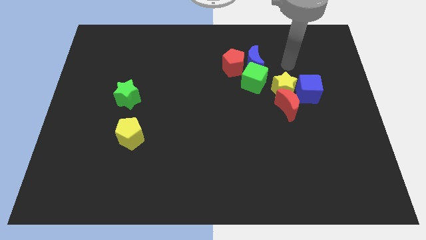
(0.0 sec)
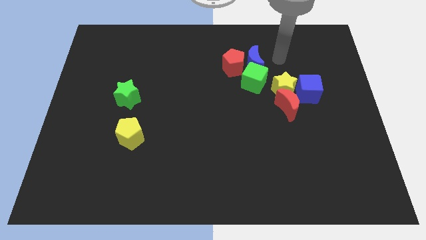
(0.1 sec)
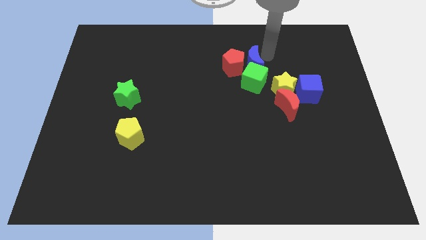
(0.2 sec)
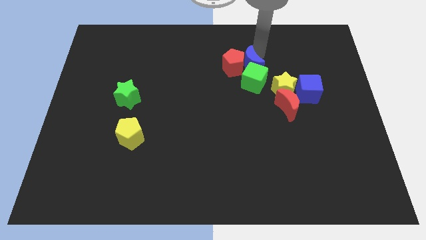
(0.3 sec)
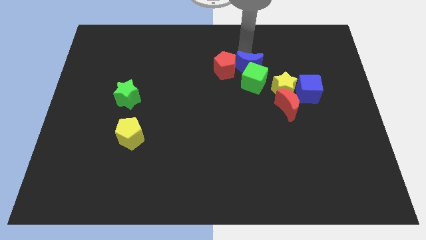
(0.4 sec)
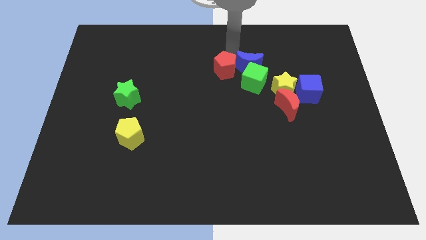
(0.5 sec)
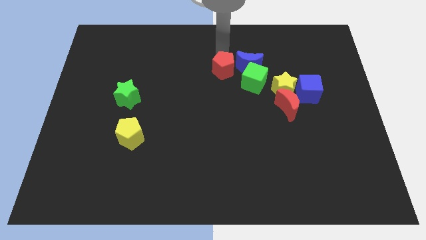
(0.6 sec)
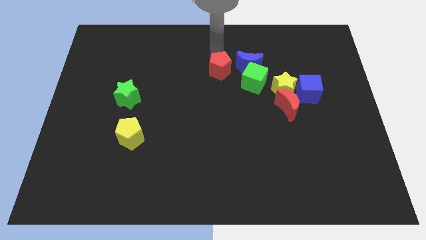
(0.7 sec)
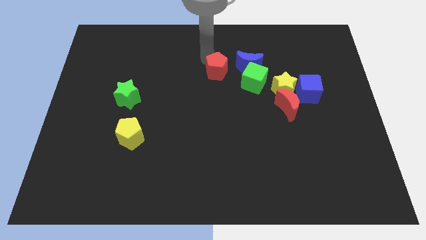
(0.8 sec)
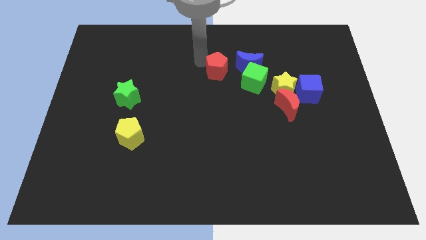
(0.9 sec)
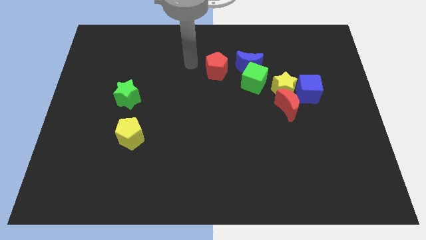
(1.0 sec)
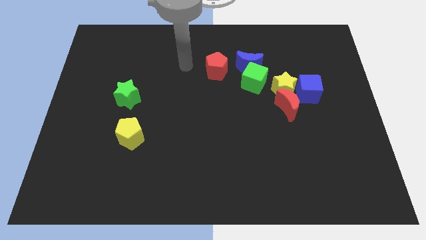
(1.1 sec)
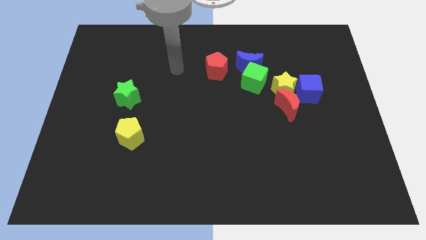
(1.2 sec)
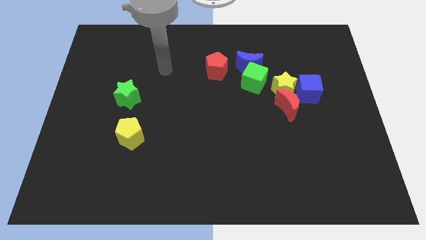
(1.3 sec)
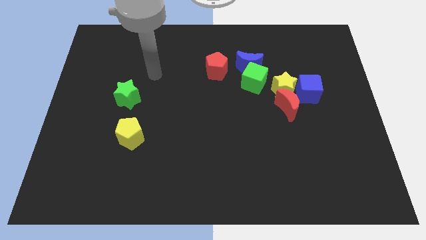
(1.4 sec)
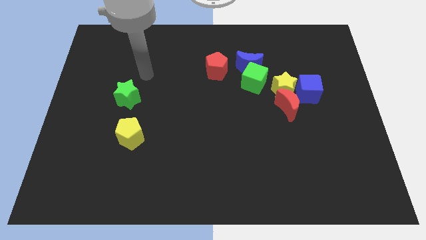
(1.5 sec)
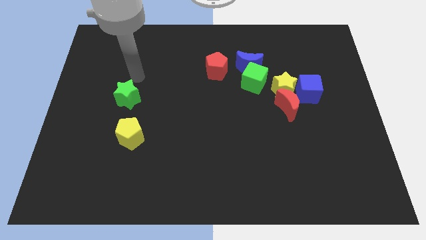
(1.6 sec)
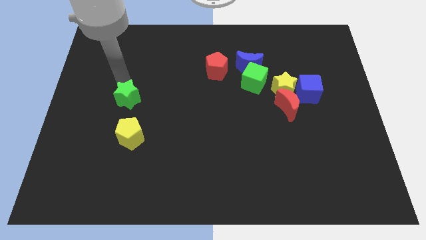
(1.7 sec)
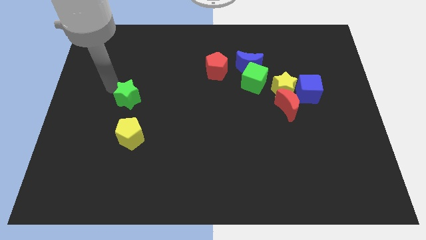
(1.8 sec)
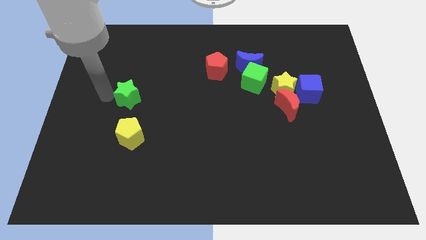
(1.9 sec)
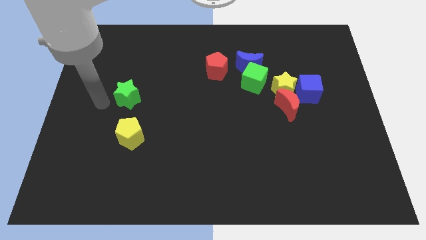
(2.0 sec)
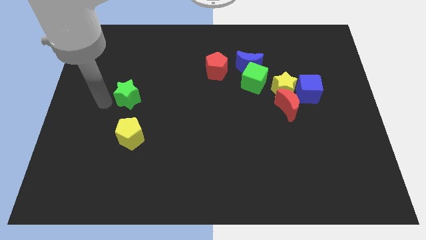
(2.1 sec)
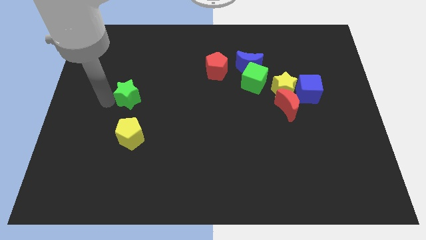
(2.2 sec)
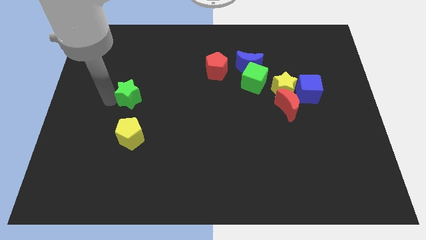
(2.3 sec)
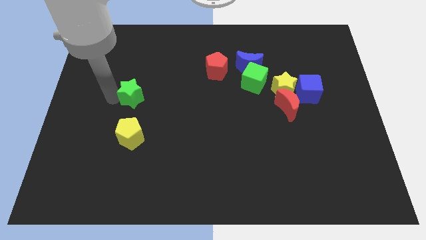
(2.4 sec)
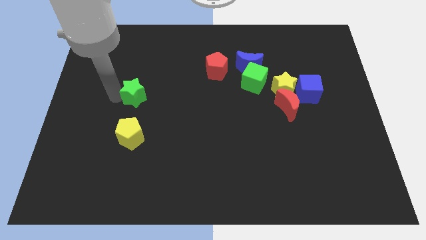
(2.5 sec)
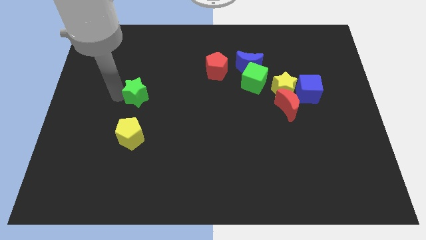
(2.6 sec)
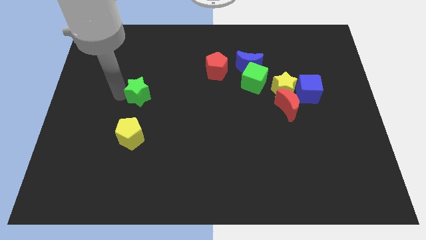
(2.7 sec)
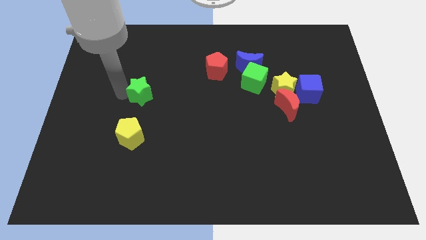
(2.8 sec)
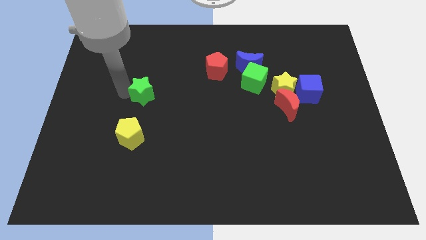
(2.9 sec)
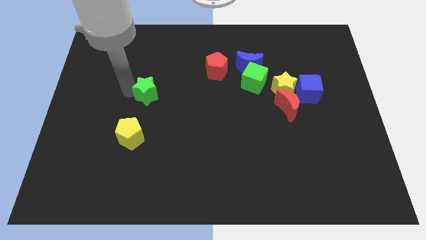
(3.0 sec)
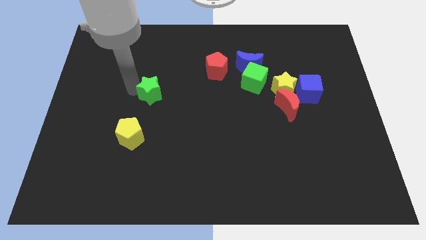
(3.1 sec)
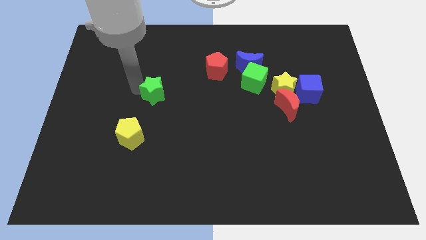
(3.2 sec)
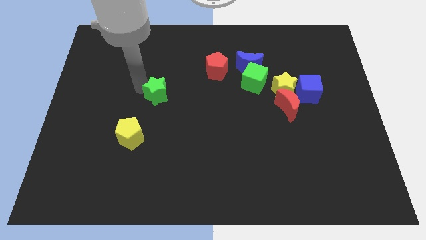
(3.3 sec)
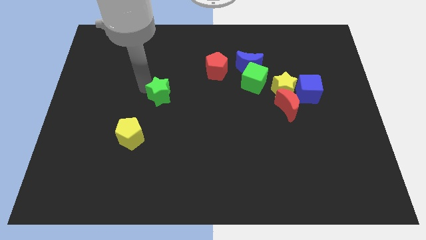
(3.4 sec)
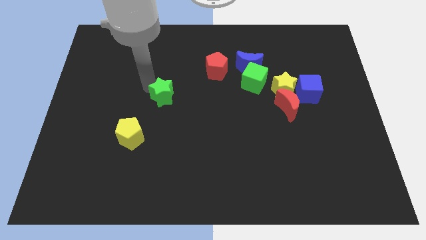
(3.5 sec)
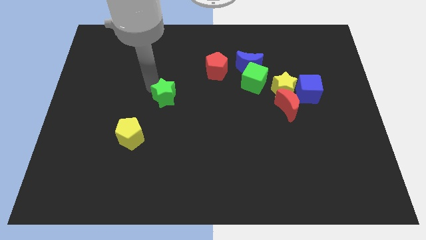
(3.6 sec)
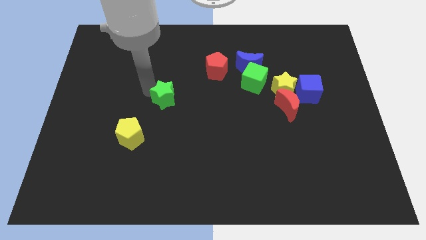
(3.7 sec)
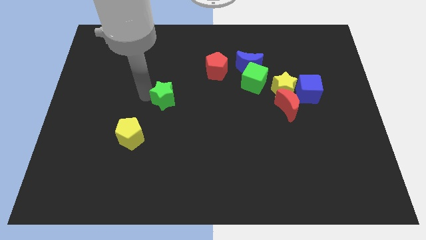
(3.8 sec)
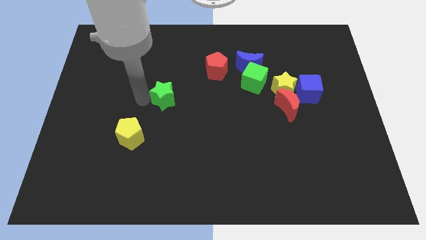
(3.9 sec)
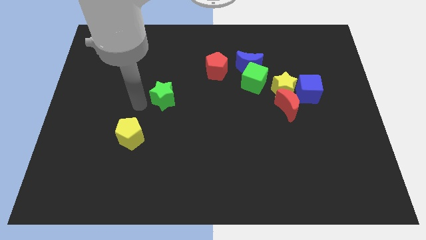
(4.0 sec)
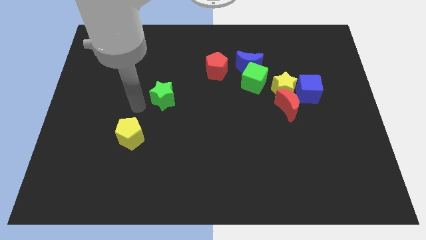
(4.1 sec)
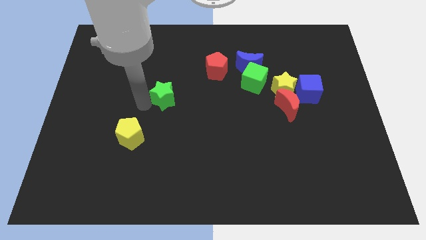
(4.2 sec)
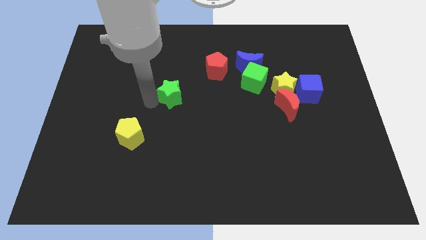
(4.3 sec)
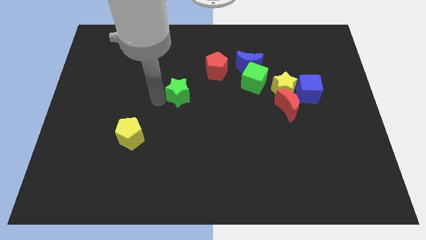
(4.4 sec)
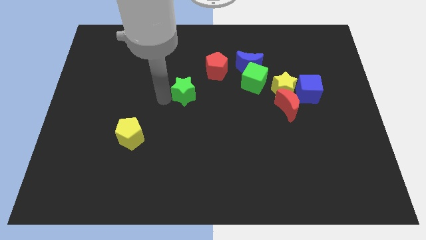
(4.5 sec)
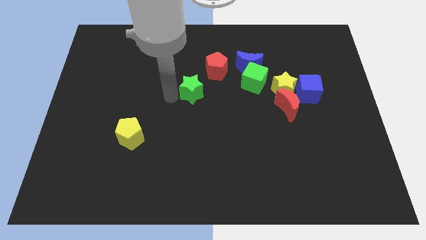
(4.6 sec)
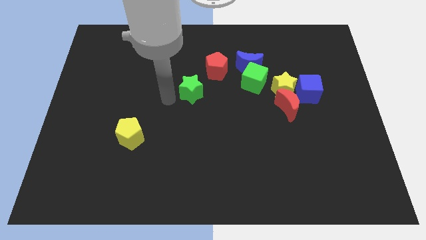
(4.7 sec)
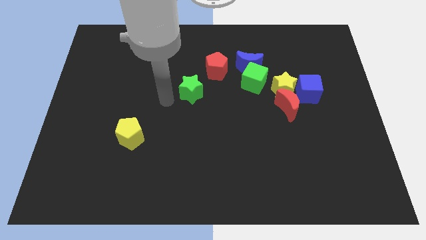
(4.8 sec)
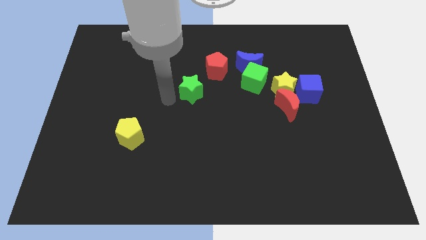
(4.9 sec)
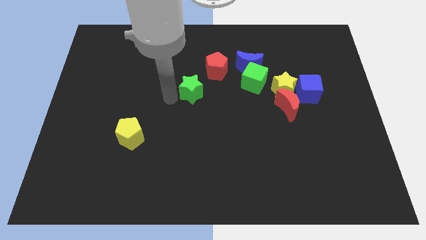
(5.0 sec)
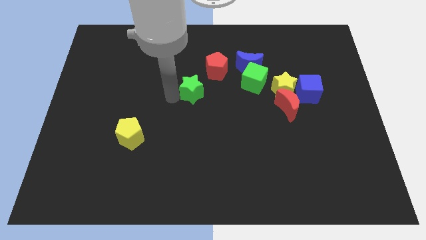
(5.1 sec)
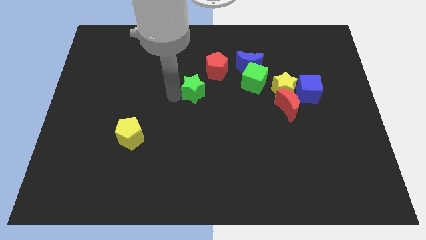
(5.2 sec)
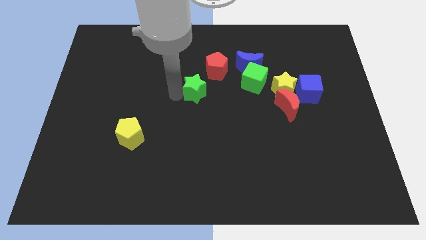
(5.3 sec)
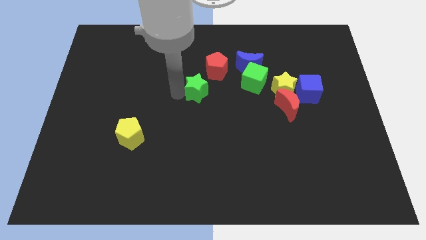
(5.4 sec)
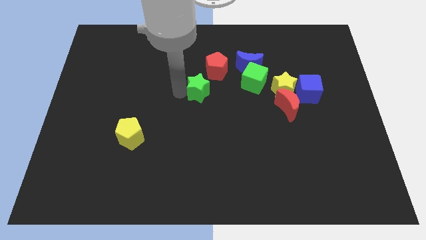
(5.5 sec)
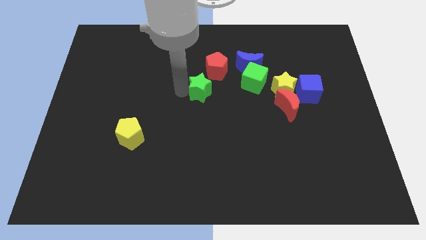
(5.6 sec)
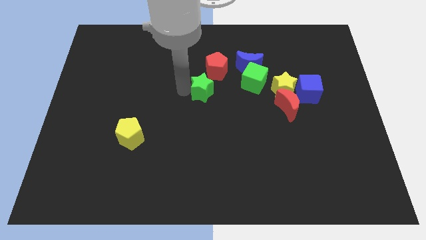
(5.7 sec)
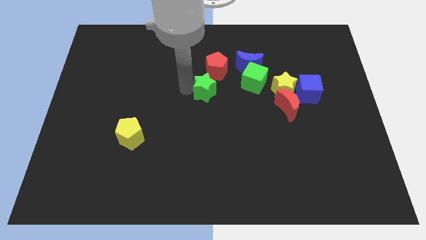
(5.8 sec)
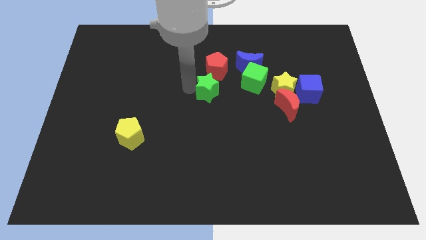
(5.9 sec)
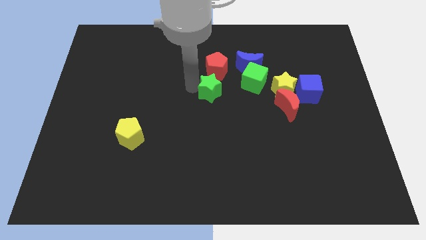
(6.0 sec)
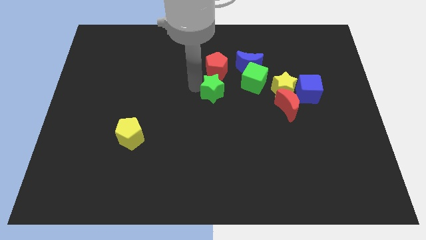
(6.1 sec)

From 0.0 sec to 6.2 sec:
move the green star diagonally down and to the left of the blue moon
